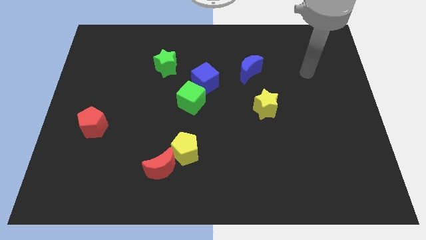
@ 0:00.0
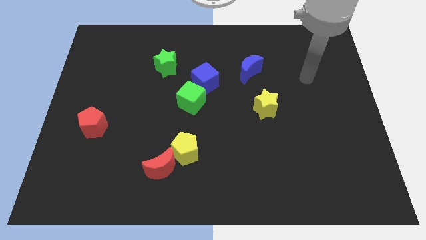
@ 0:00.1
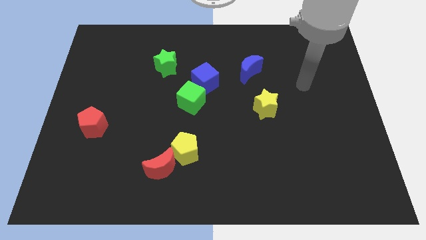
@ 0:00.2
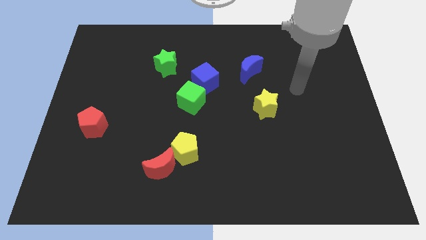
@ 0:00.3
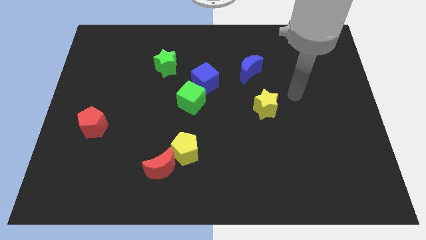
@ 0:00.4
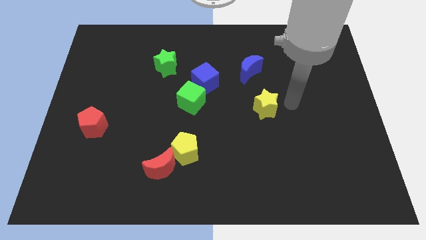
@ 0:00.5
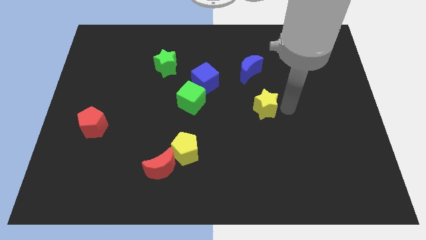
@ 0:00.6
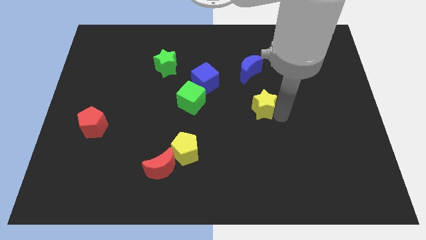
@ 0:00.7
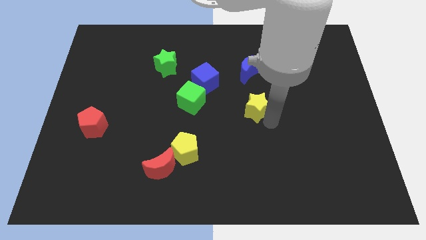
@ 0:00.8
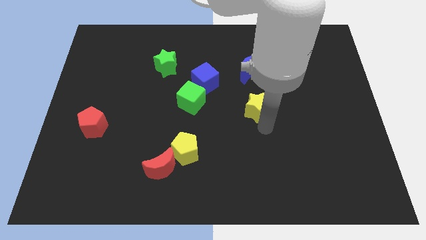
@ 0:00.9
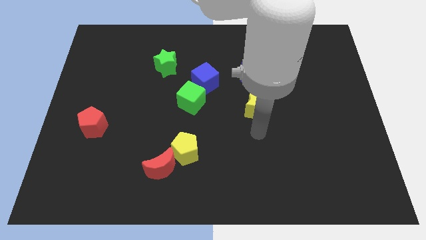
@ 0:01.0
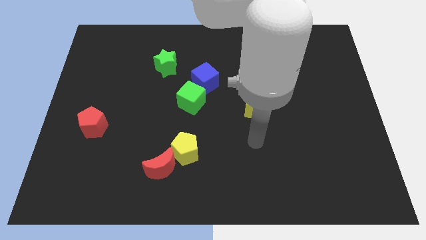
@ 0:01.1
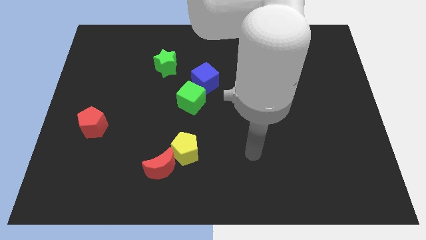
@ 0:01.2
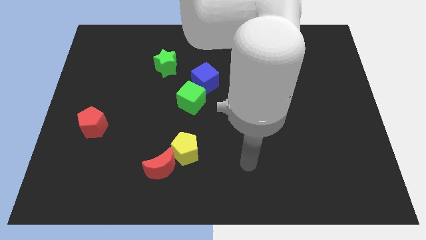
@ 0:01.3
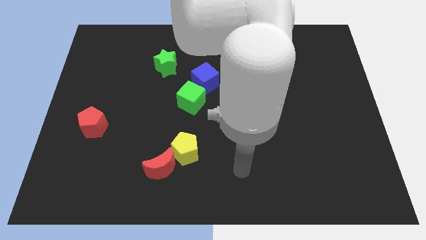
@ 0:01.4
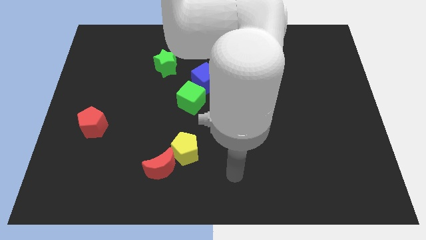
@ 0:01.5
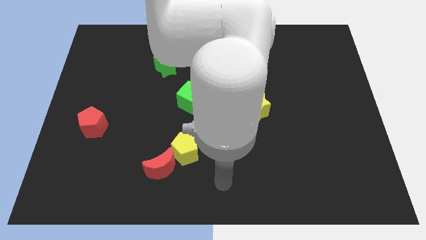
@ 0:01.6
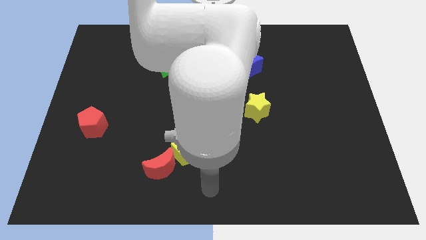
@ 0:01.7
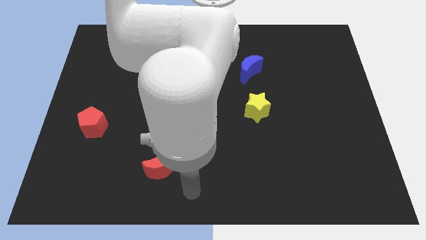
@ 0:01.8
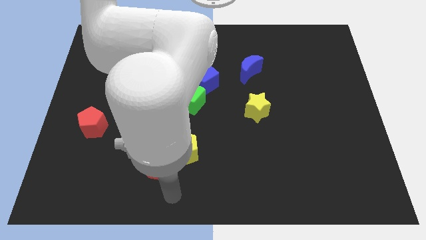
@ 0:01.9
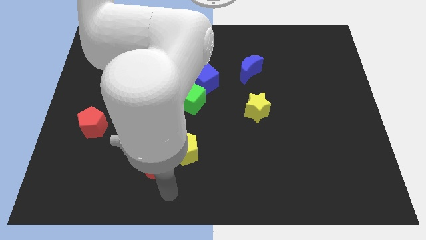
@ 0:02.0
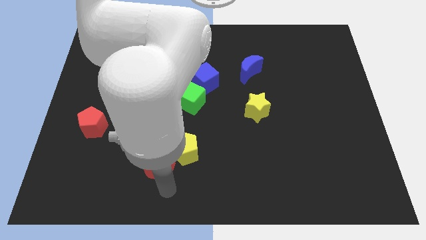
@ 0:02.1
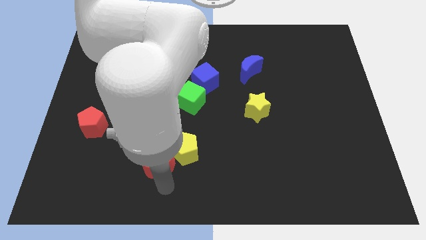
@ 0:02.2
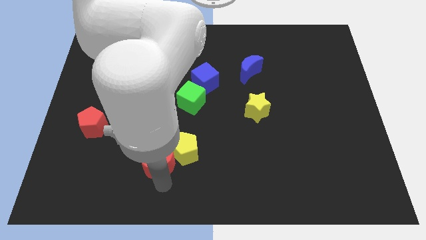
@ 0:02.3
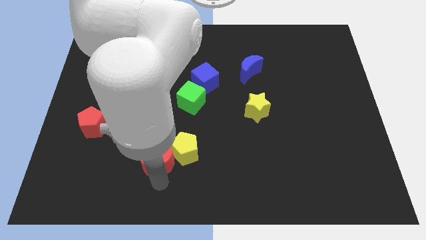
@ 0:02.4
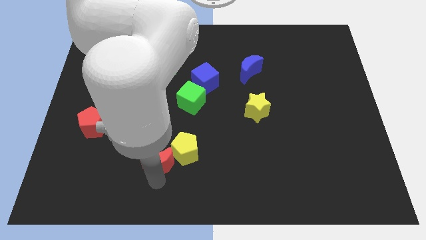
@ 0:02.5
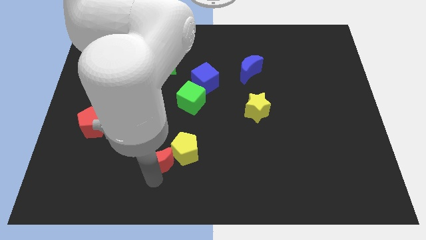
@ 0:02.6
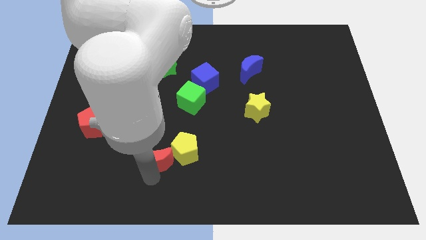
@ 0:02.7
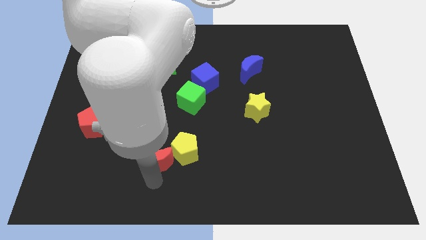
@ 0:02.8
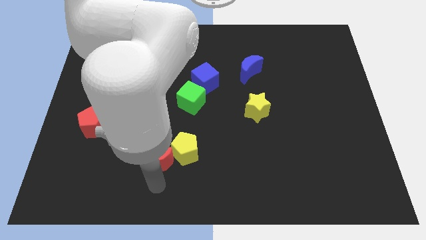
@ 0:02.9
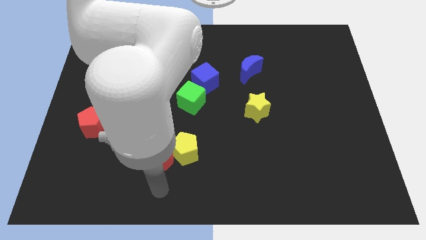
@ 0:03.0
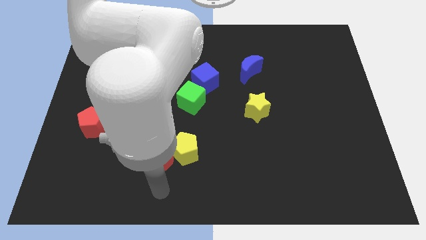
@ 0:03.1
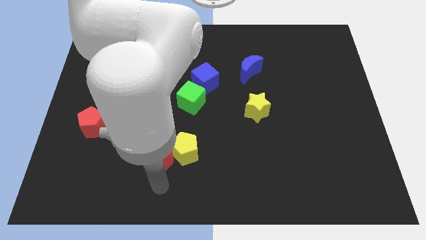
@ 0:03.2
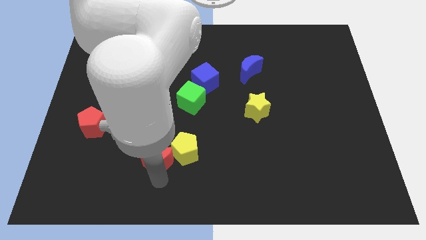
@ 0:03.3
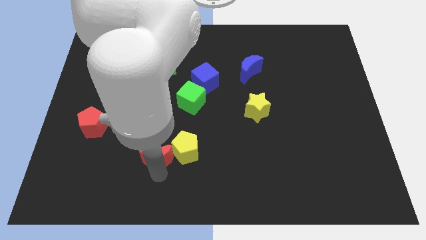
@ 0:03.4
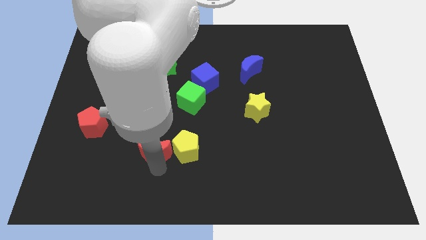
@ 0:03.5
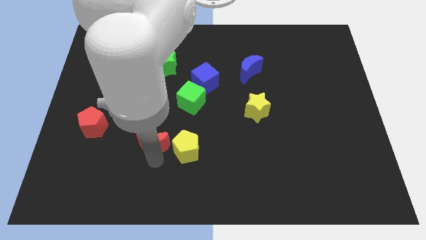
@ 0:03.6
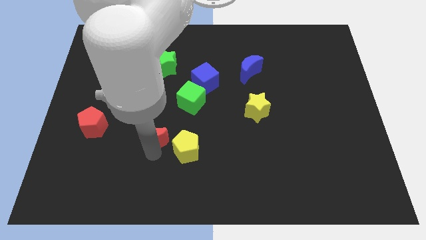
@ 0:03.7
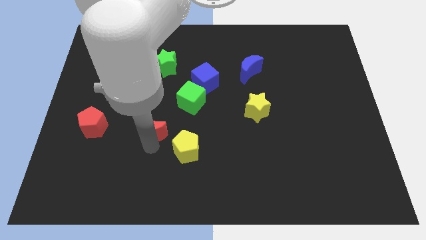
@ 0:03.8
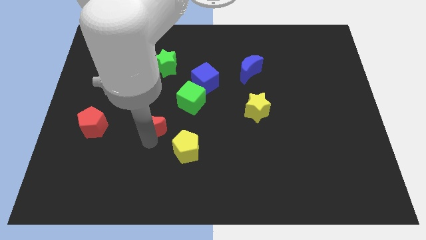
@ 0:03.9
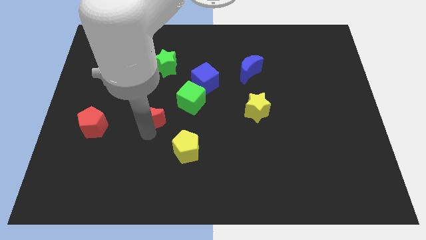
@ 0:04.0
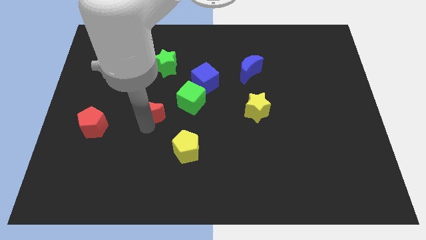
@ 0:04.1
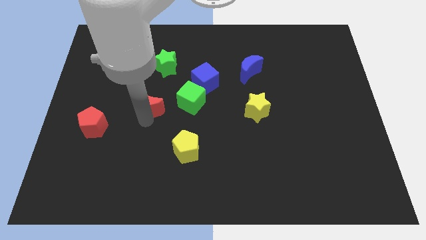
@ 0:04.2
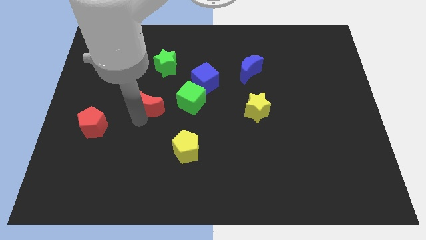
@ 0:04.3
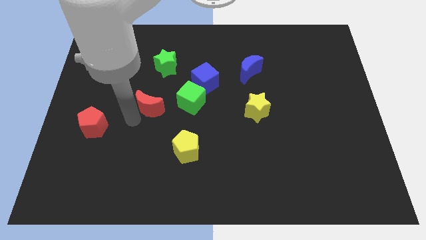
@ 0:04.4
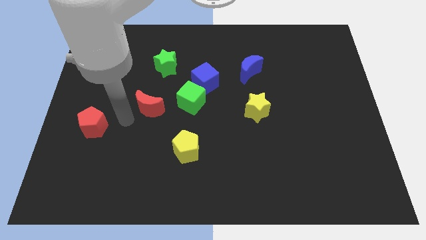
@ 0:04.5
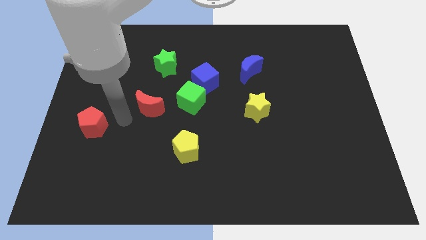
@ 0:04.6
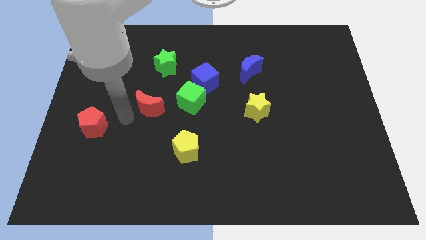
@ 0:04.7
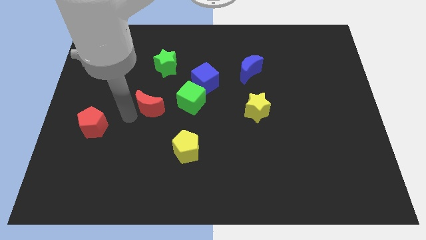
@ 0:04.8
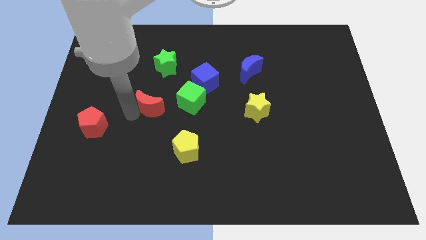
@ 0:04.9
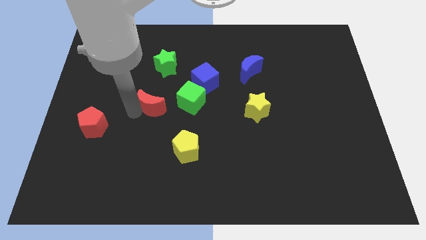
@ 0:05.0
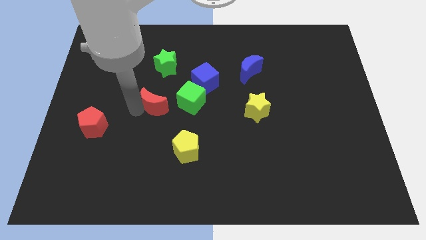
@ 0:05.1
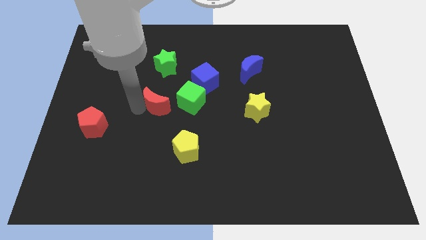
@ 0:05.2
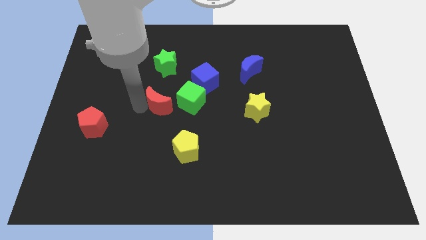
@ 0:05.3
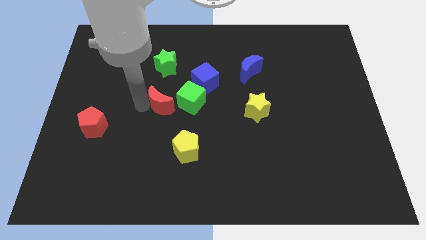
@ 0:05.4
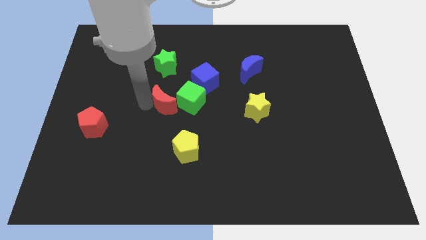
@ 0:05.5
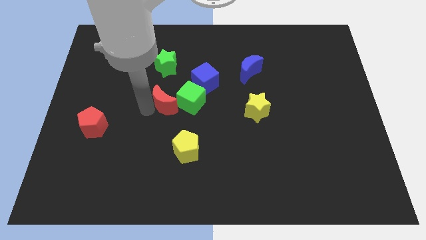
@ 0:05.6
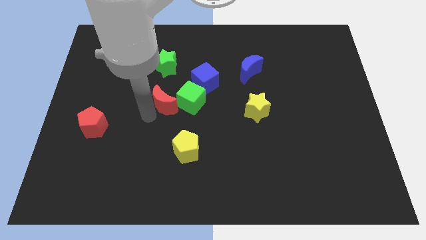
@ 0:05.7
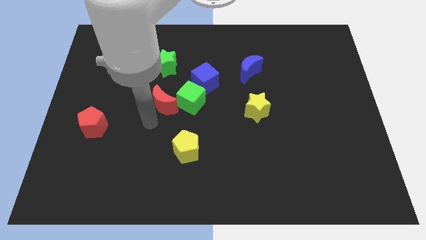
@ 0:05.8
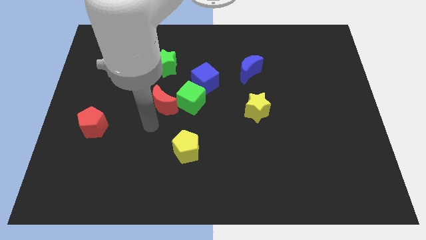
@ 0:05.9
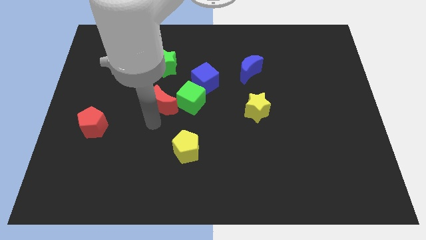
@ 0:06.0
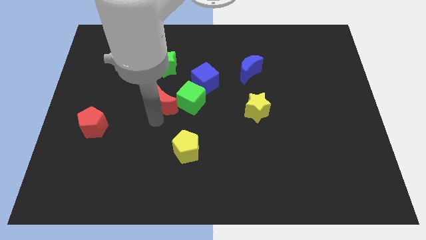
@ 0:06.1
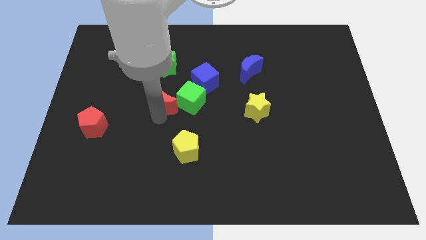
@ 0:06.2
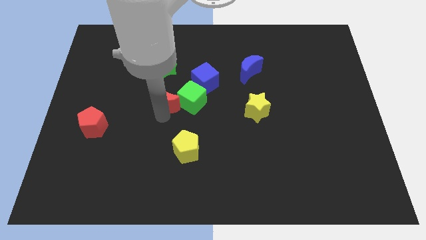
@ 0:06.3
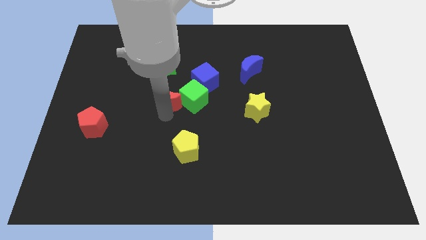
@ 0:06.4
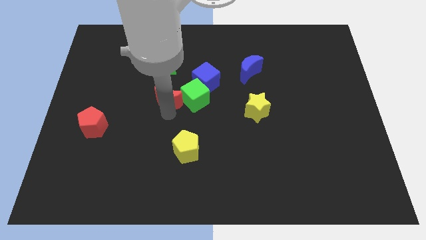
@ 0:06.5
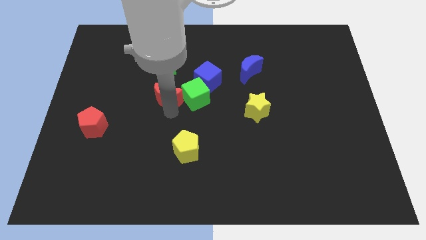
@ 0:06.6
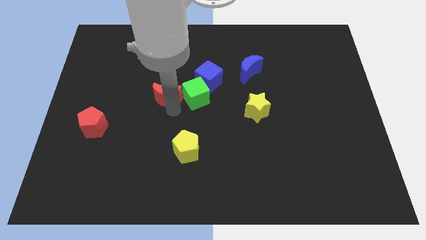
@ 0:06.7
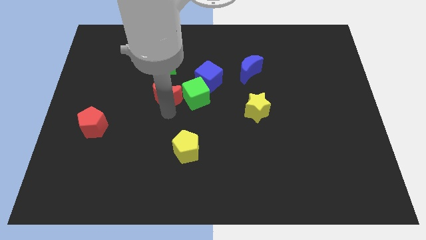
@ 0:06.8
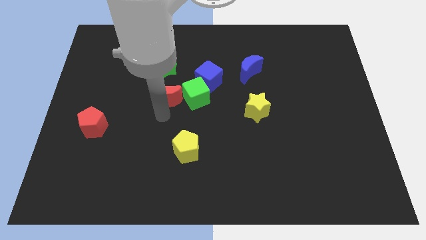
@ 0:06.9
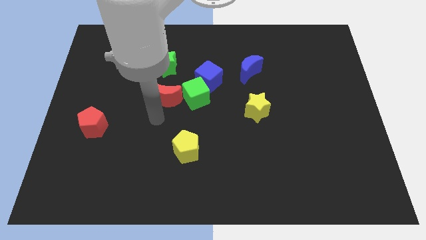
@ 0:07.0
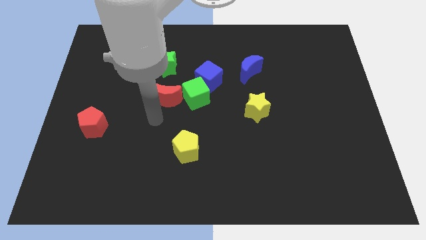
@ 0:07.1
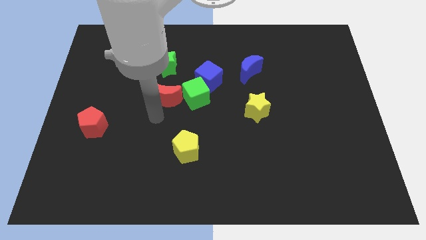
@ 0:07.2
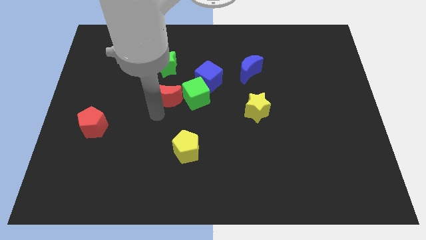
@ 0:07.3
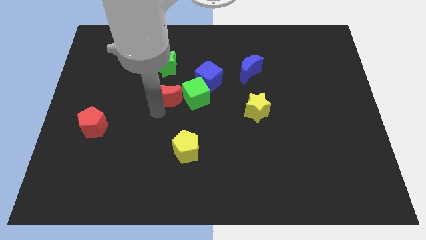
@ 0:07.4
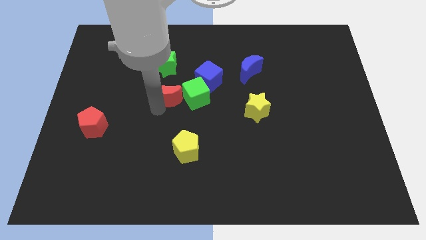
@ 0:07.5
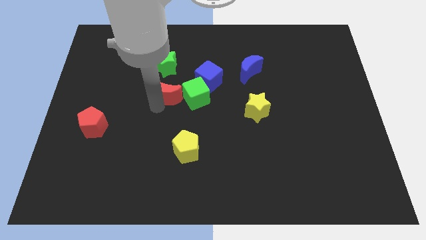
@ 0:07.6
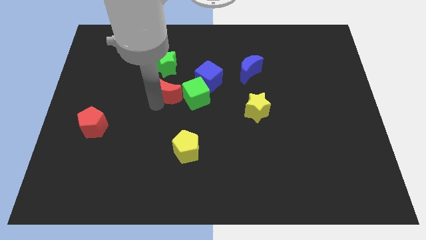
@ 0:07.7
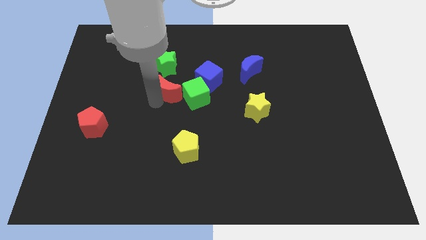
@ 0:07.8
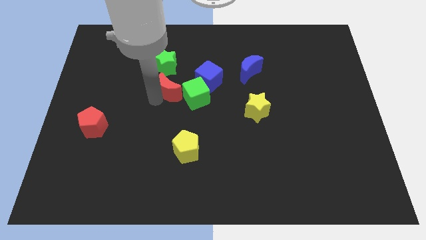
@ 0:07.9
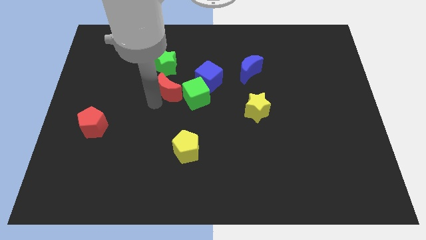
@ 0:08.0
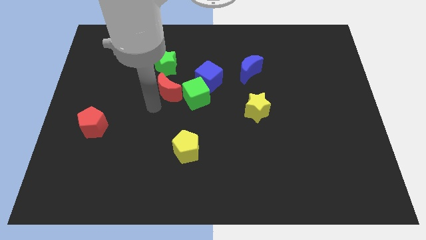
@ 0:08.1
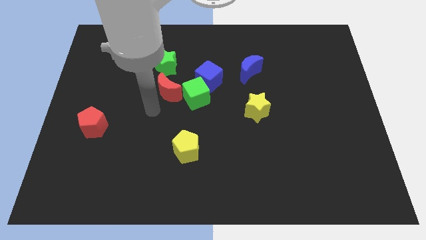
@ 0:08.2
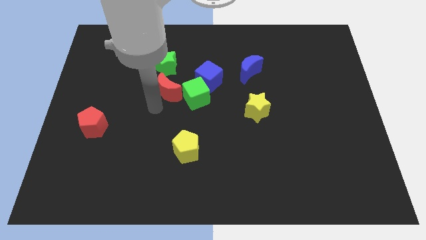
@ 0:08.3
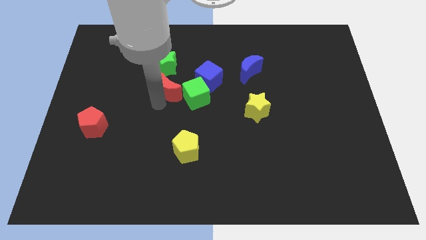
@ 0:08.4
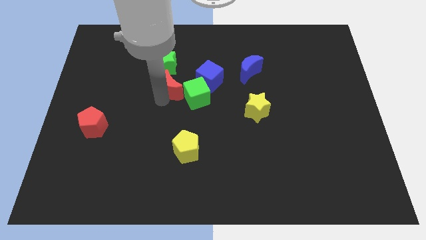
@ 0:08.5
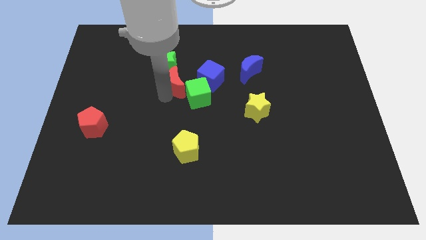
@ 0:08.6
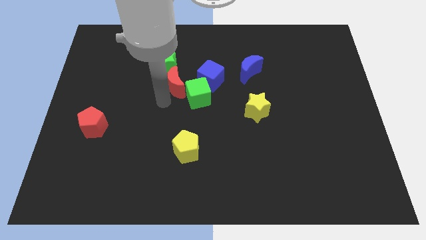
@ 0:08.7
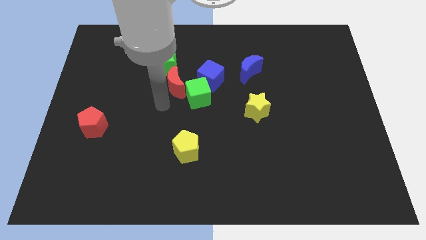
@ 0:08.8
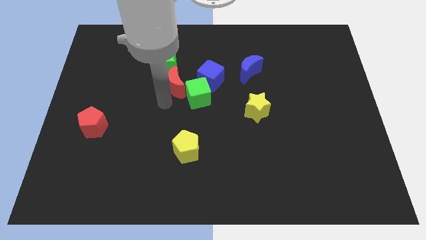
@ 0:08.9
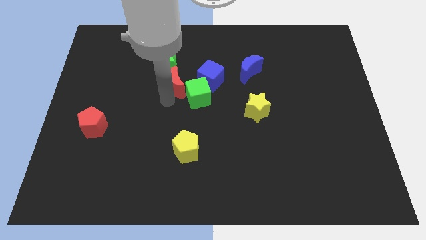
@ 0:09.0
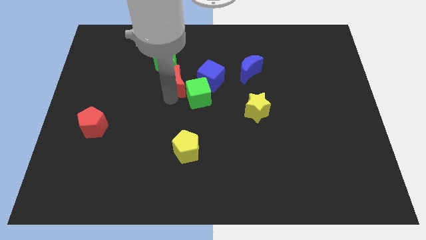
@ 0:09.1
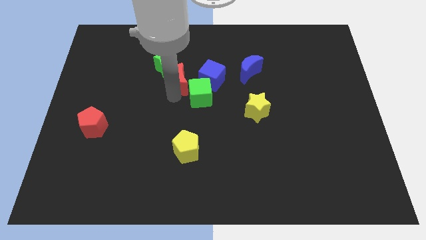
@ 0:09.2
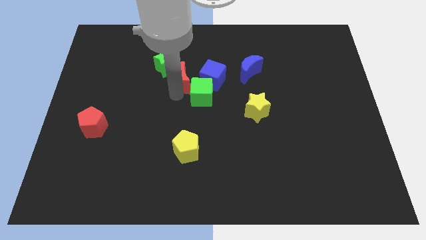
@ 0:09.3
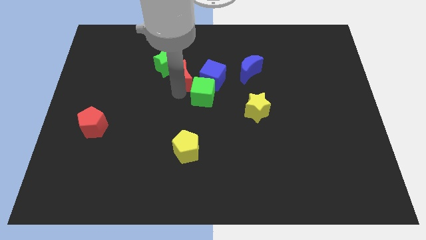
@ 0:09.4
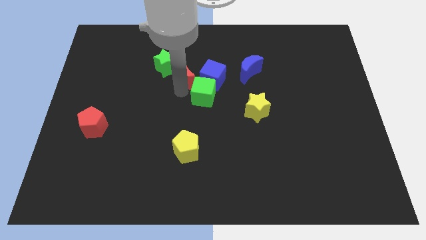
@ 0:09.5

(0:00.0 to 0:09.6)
push the red moon to the top left side of the blue cube
